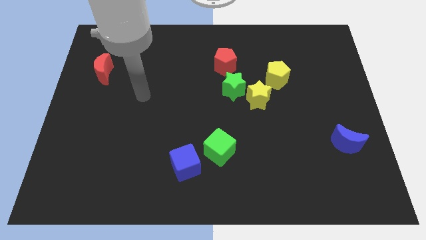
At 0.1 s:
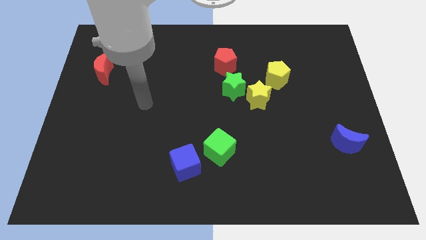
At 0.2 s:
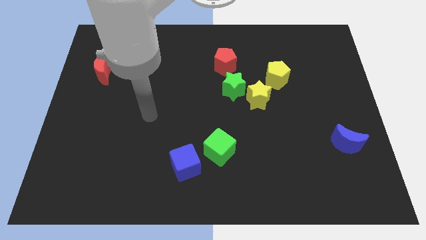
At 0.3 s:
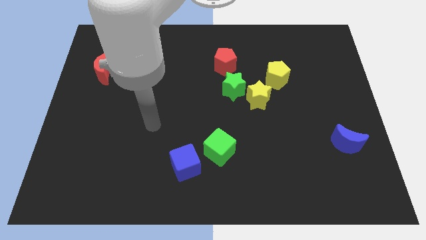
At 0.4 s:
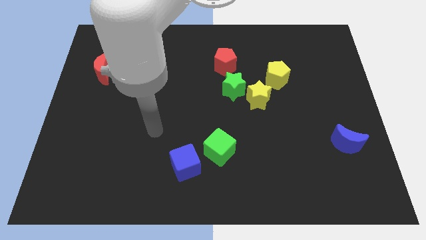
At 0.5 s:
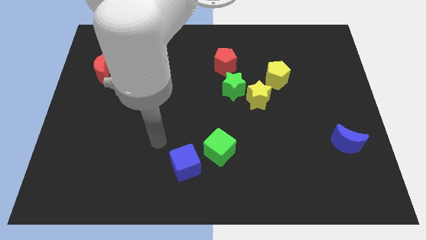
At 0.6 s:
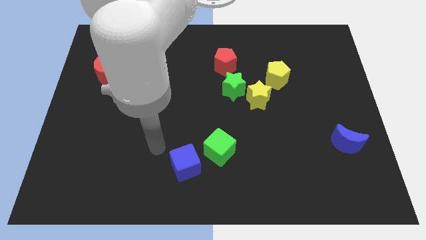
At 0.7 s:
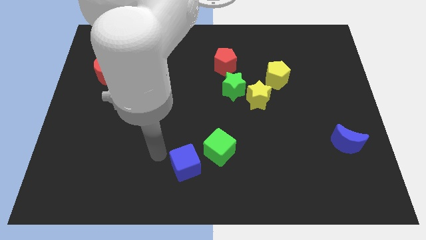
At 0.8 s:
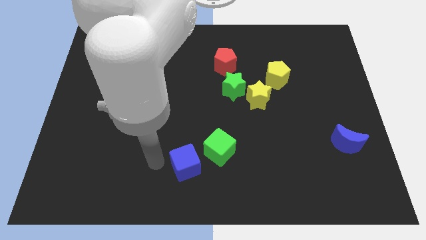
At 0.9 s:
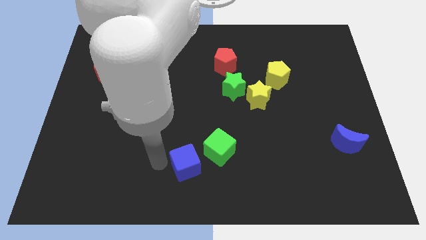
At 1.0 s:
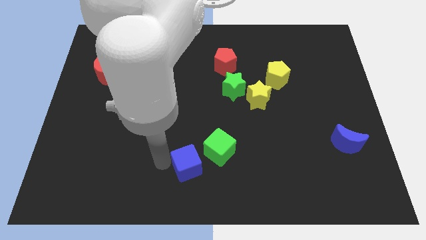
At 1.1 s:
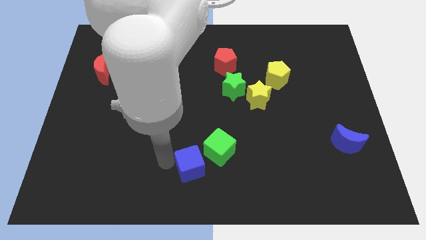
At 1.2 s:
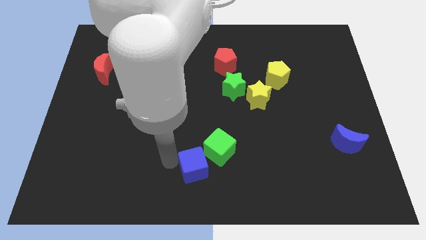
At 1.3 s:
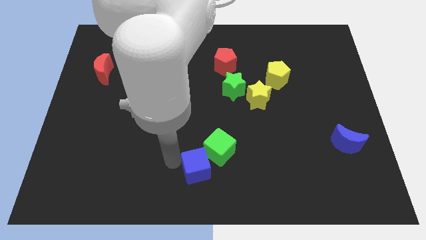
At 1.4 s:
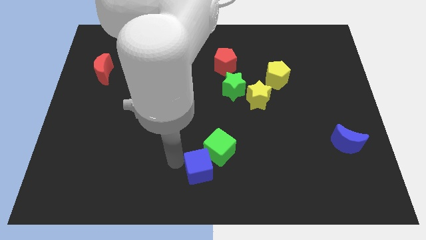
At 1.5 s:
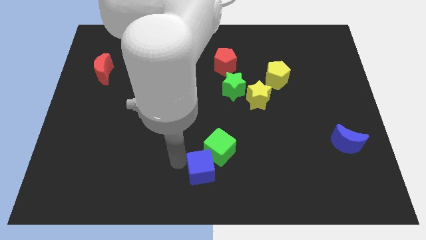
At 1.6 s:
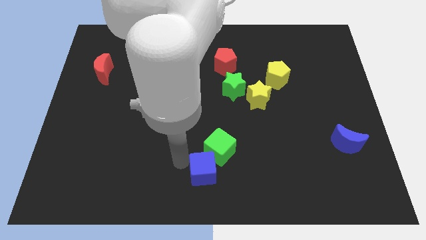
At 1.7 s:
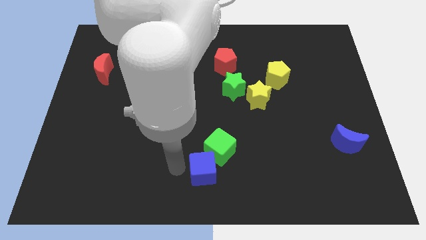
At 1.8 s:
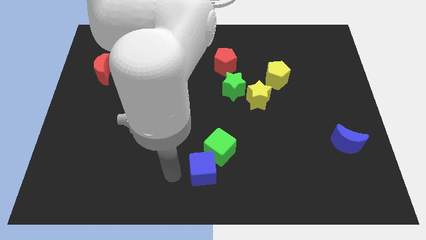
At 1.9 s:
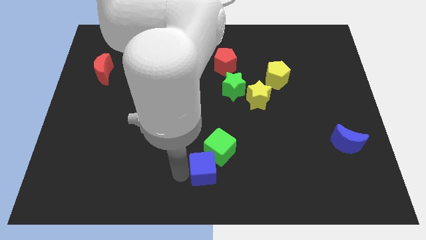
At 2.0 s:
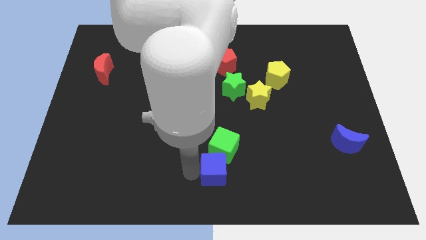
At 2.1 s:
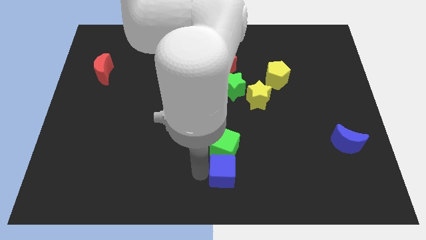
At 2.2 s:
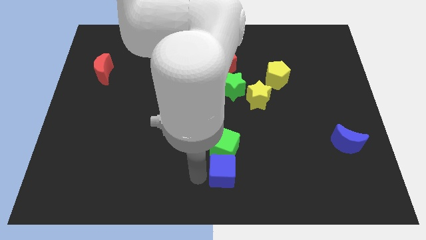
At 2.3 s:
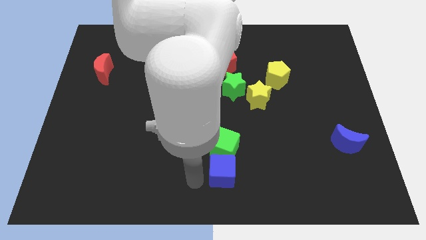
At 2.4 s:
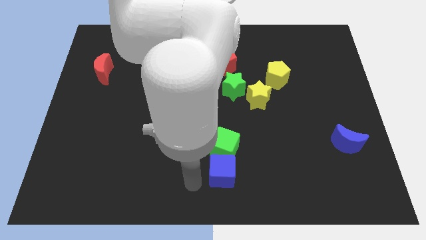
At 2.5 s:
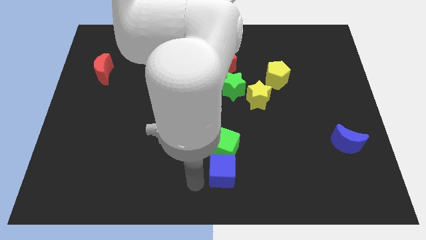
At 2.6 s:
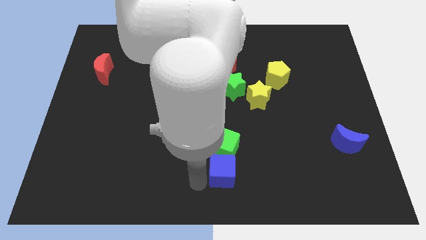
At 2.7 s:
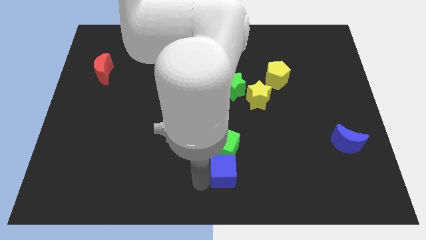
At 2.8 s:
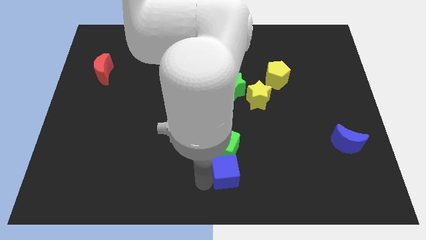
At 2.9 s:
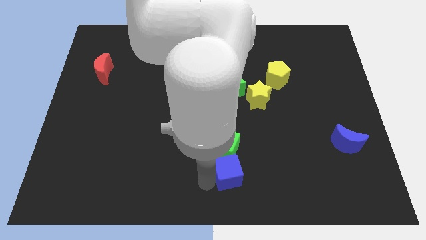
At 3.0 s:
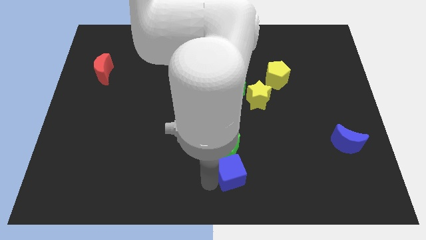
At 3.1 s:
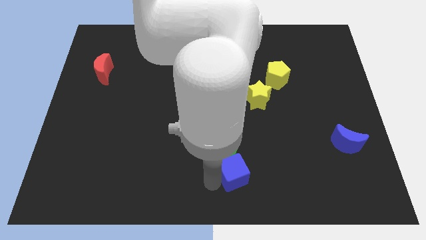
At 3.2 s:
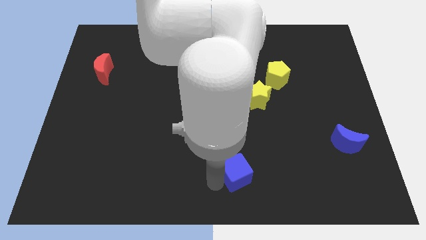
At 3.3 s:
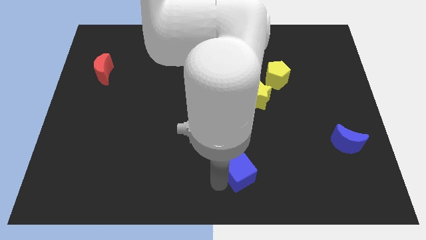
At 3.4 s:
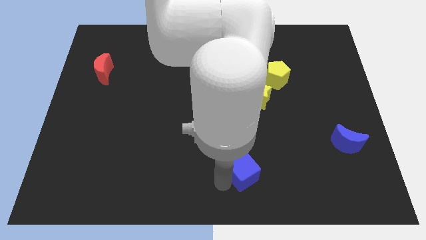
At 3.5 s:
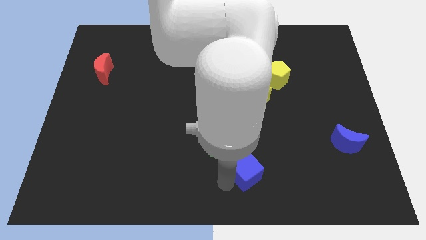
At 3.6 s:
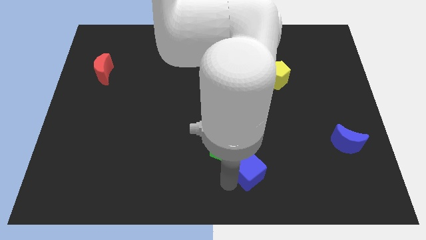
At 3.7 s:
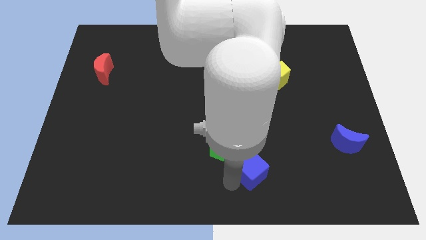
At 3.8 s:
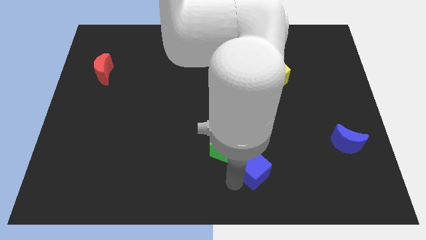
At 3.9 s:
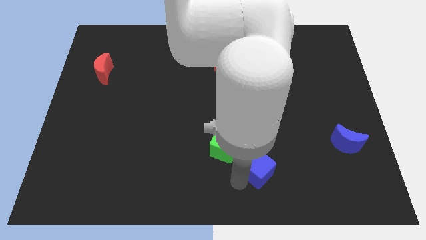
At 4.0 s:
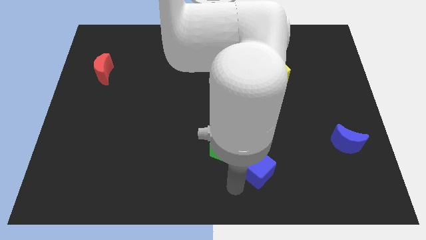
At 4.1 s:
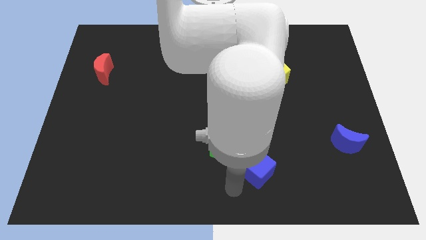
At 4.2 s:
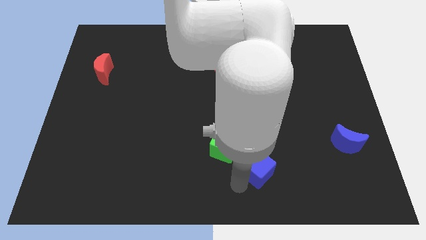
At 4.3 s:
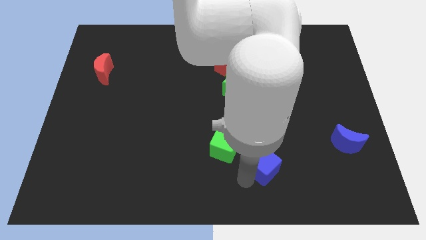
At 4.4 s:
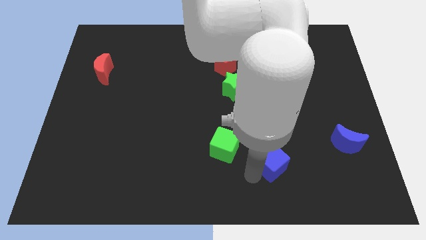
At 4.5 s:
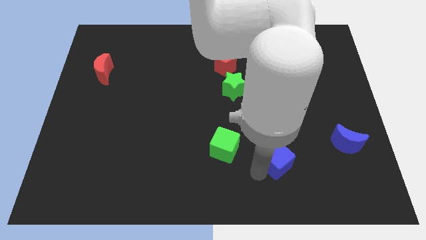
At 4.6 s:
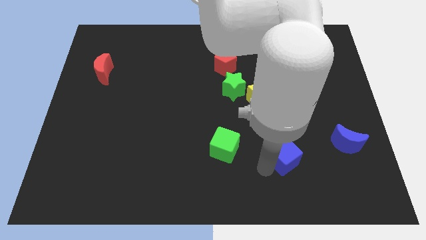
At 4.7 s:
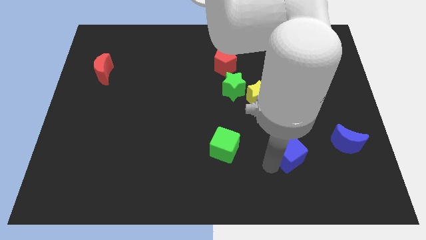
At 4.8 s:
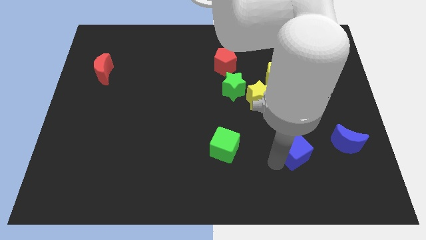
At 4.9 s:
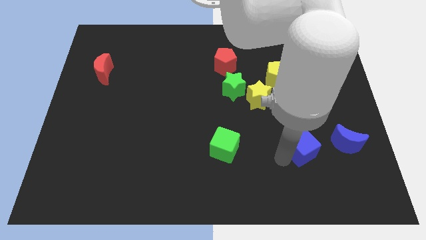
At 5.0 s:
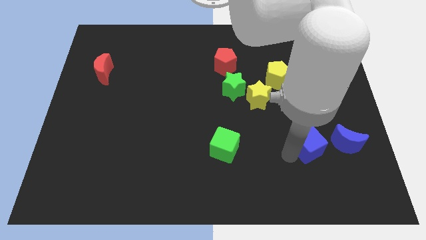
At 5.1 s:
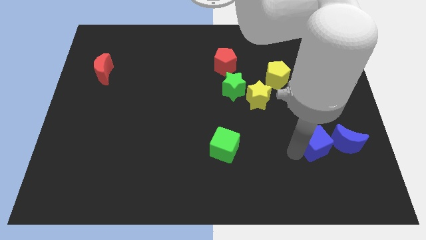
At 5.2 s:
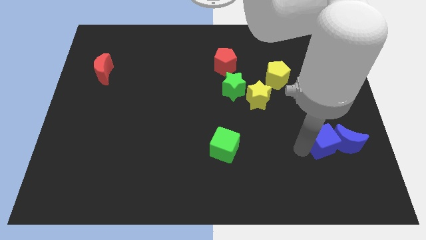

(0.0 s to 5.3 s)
push the blue cube close to the blue moon

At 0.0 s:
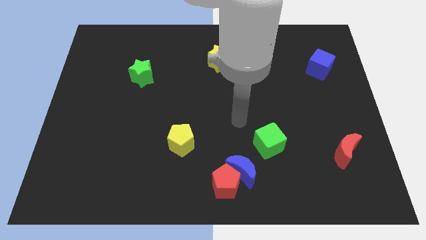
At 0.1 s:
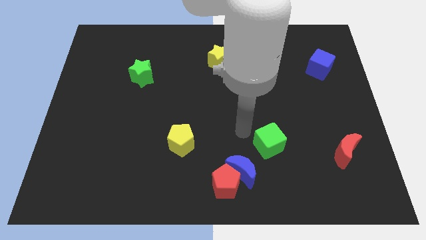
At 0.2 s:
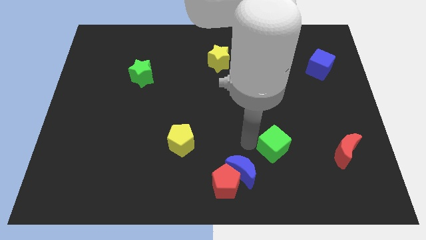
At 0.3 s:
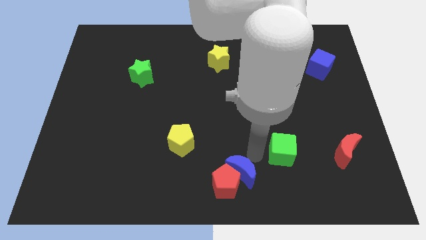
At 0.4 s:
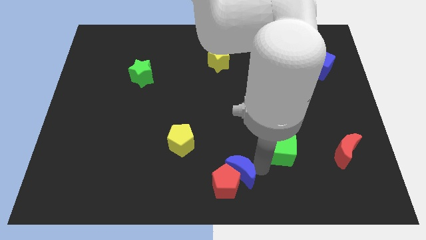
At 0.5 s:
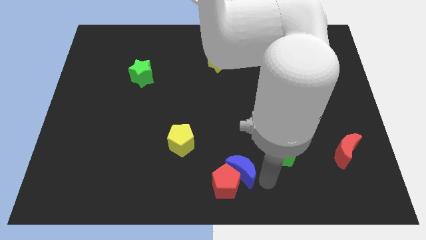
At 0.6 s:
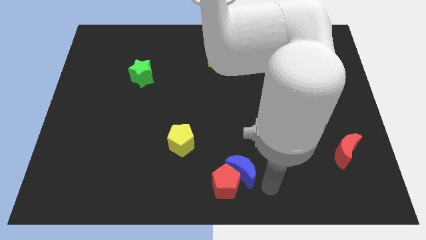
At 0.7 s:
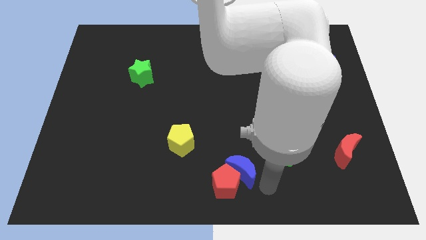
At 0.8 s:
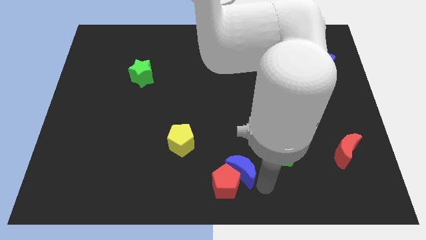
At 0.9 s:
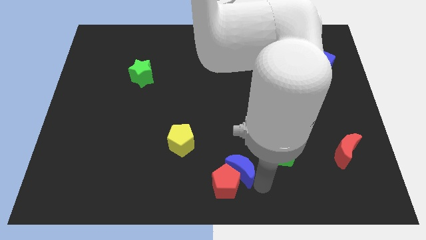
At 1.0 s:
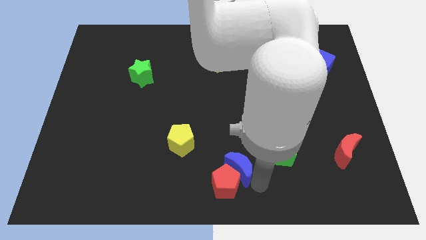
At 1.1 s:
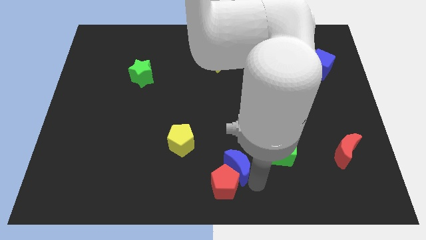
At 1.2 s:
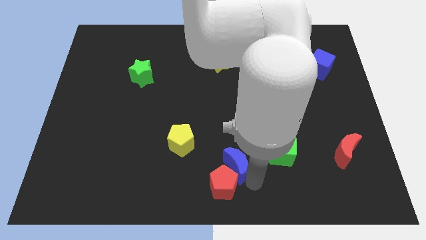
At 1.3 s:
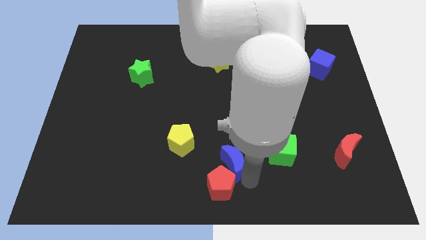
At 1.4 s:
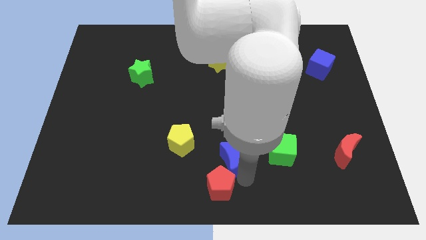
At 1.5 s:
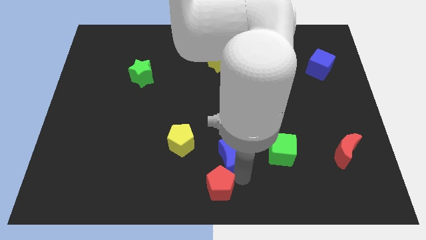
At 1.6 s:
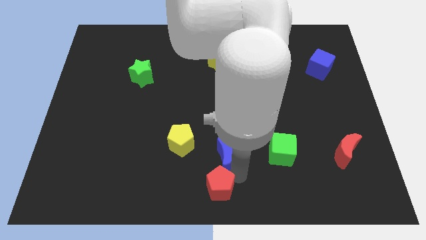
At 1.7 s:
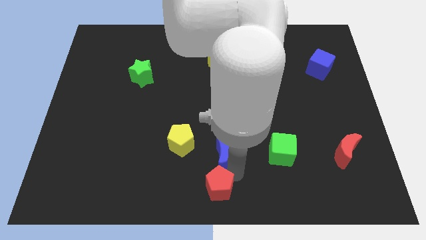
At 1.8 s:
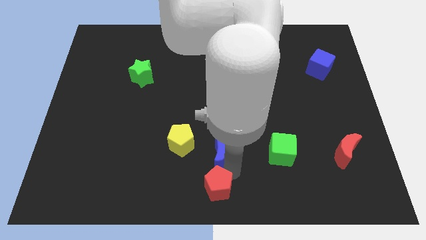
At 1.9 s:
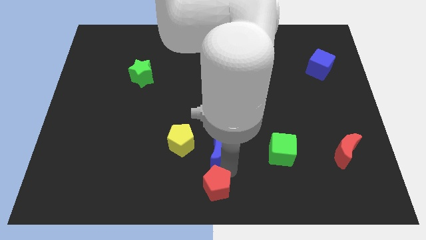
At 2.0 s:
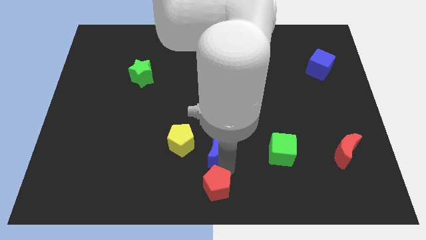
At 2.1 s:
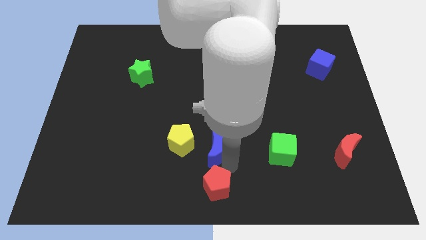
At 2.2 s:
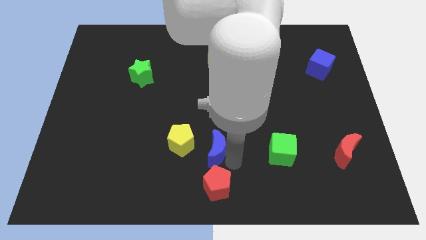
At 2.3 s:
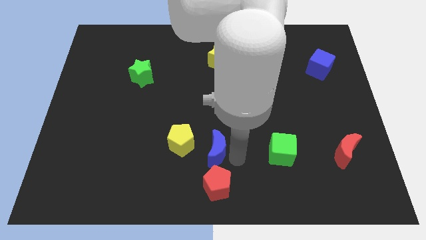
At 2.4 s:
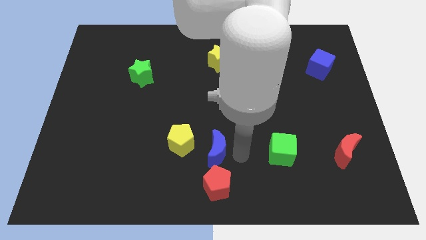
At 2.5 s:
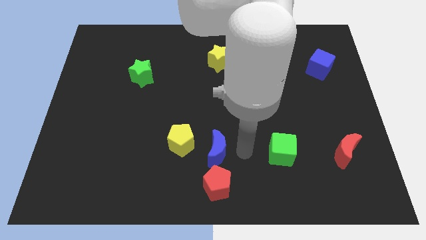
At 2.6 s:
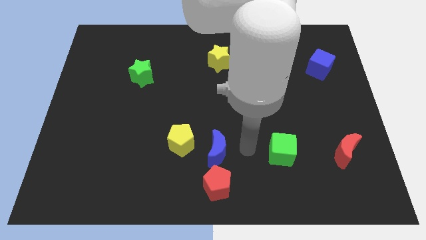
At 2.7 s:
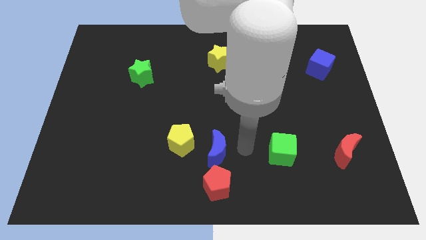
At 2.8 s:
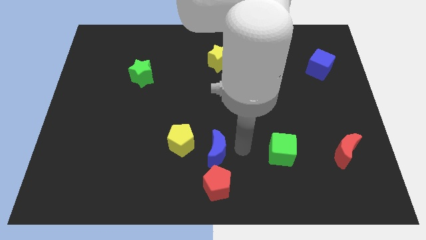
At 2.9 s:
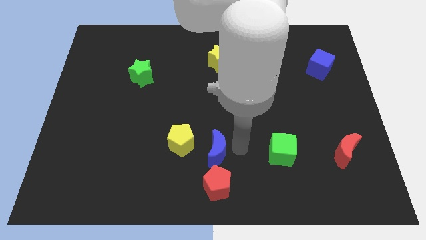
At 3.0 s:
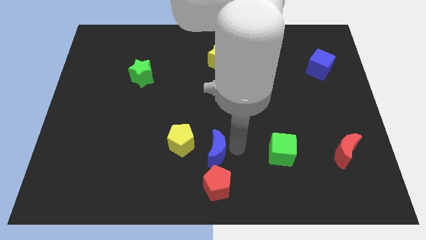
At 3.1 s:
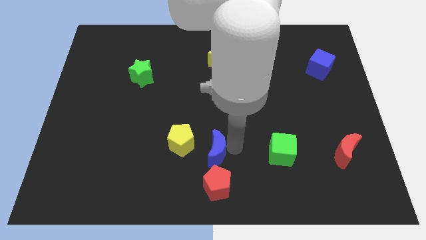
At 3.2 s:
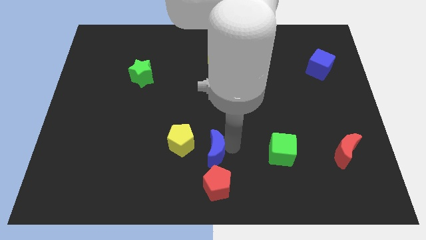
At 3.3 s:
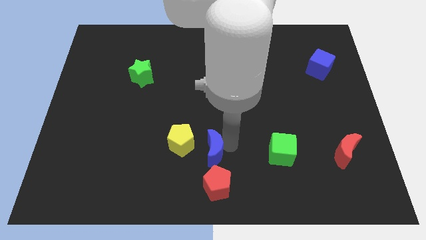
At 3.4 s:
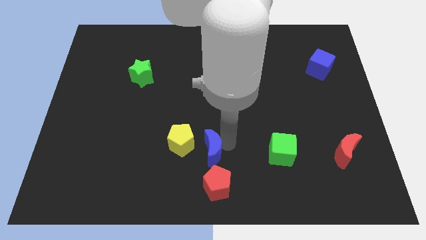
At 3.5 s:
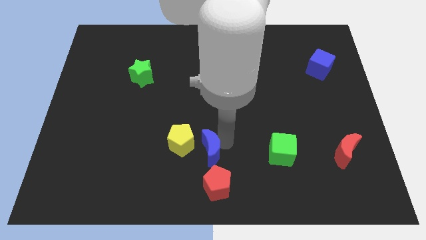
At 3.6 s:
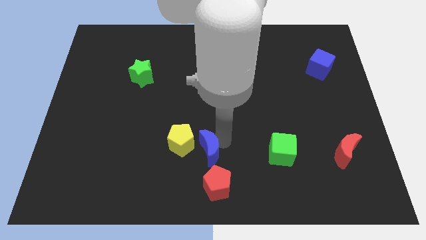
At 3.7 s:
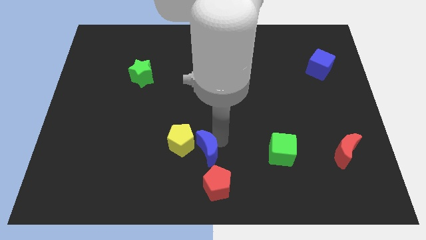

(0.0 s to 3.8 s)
move the blue moon close to the yellow pentagon
